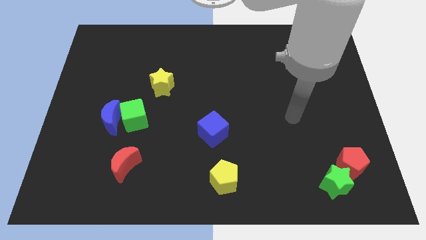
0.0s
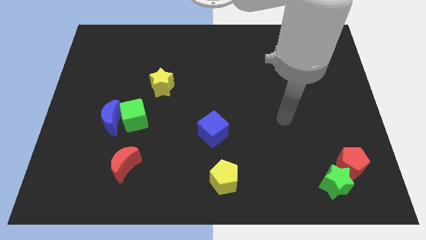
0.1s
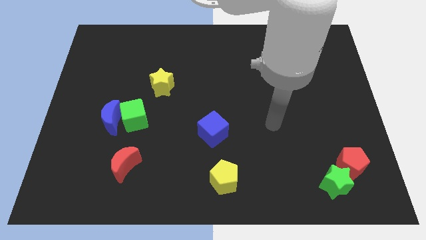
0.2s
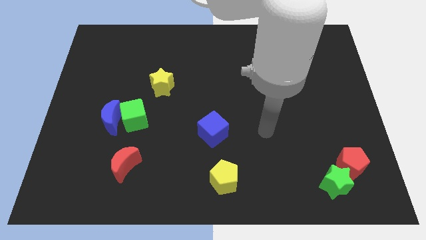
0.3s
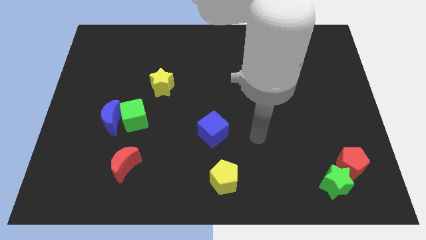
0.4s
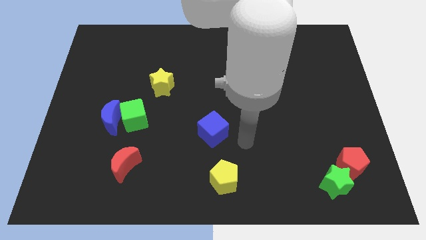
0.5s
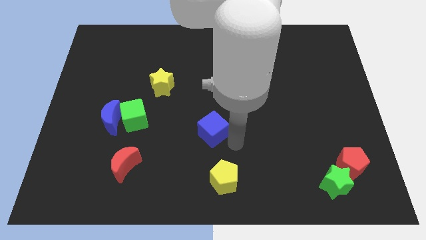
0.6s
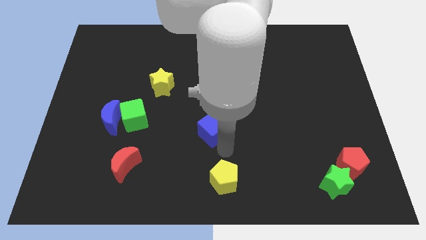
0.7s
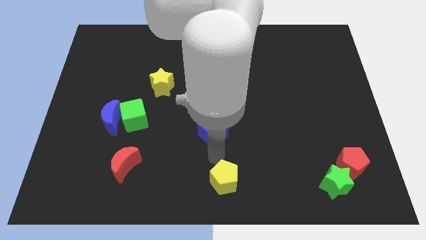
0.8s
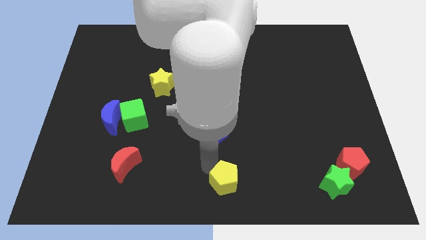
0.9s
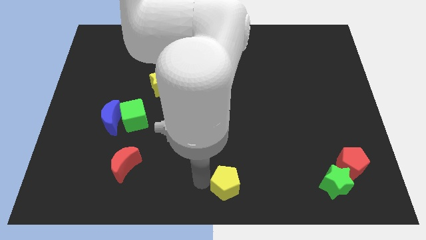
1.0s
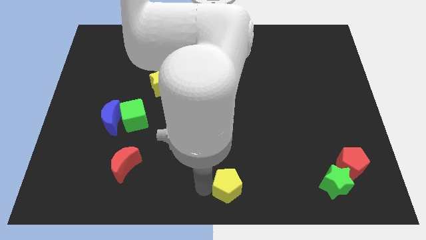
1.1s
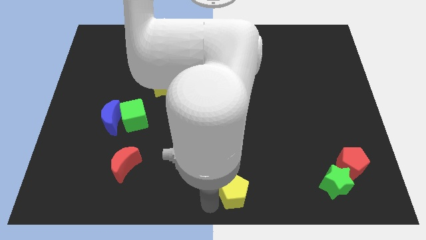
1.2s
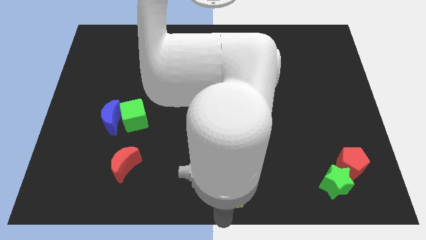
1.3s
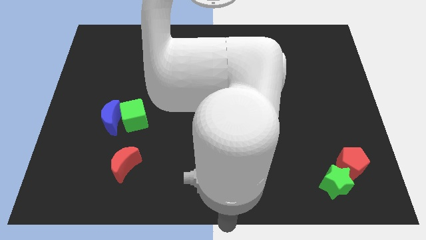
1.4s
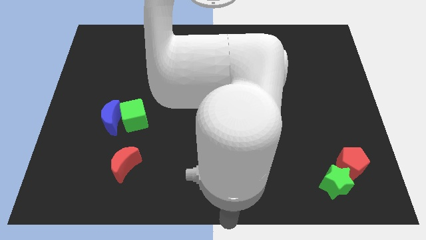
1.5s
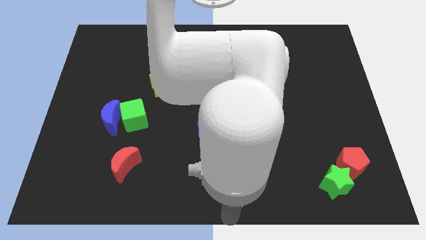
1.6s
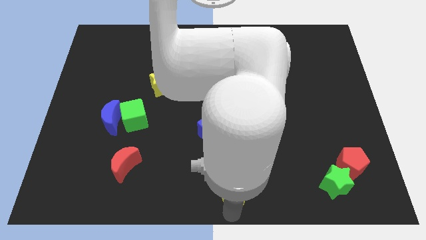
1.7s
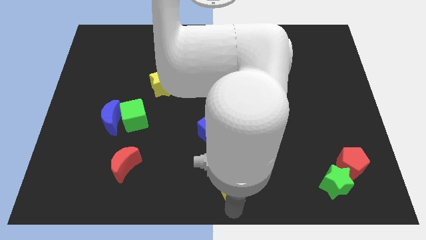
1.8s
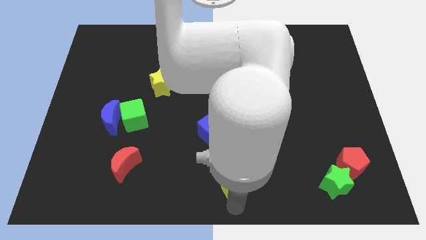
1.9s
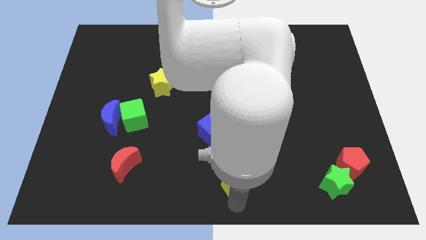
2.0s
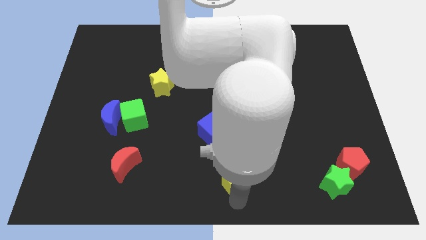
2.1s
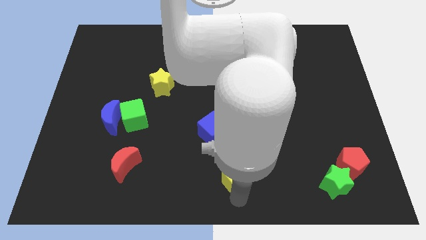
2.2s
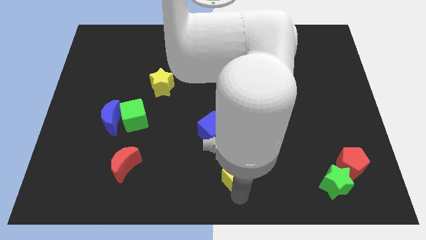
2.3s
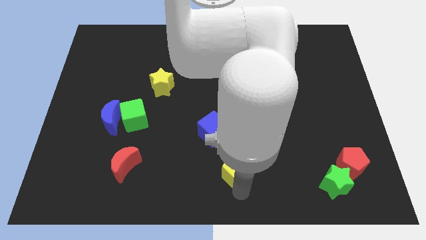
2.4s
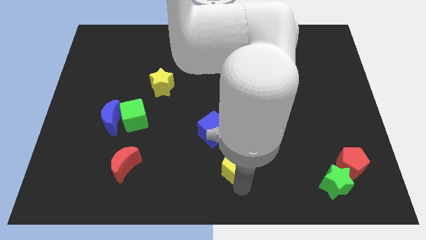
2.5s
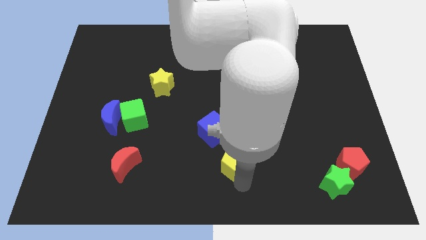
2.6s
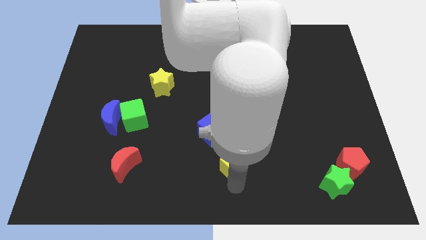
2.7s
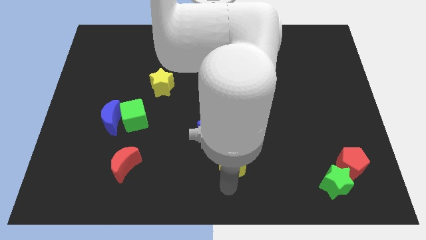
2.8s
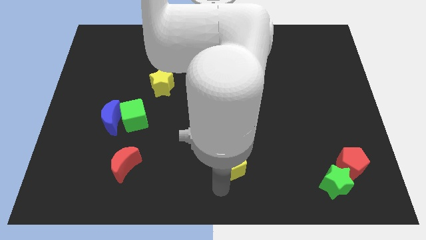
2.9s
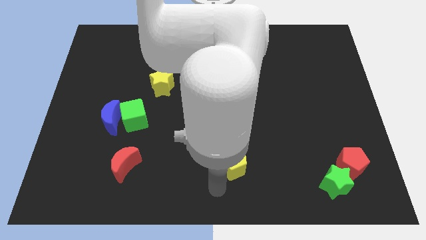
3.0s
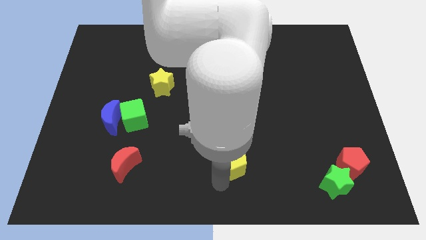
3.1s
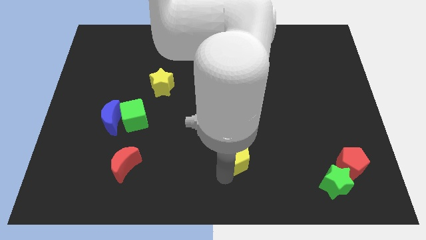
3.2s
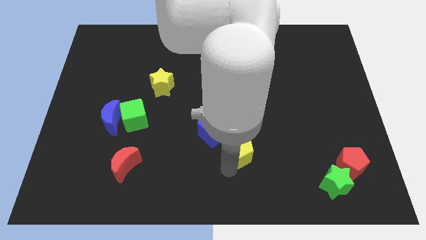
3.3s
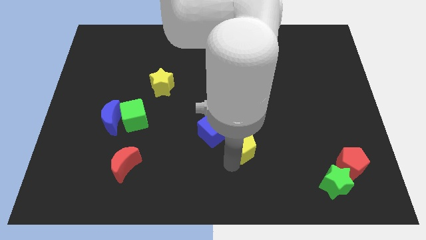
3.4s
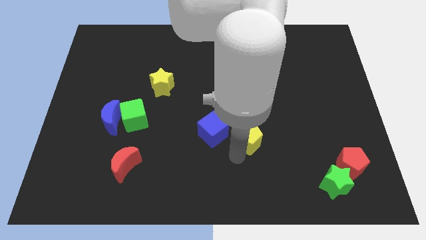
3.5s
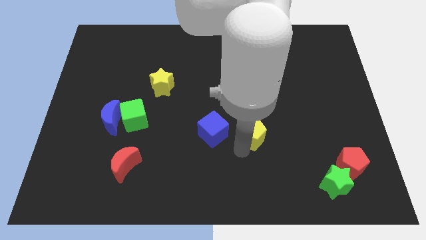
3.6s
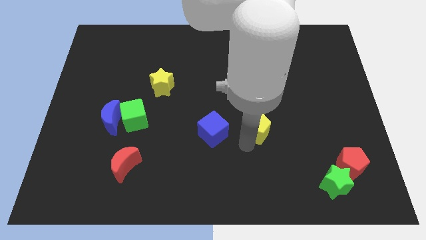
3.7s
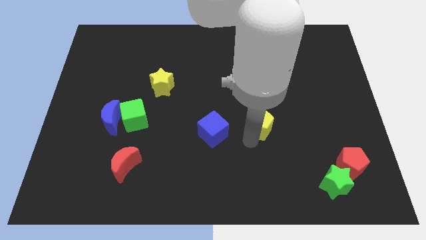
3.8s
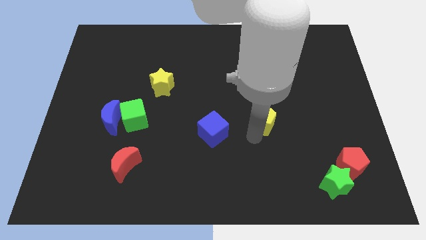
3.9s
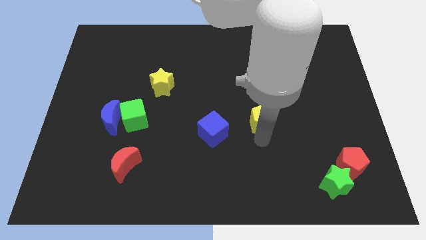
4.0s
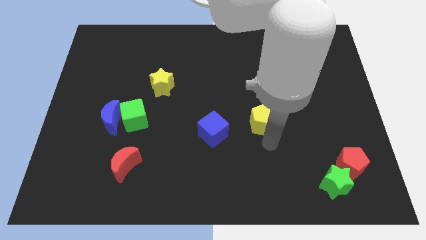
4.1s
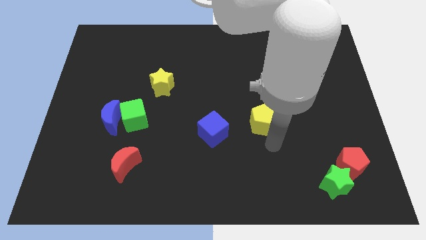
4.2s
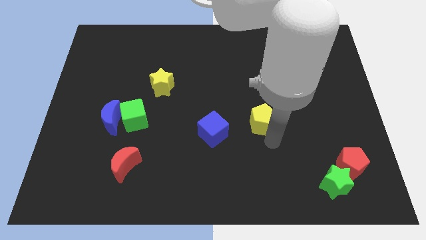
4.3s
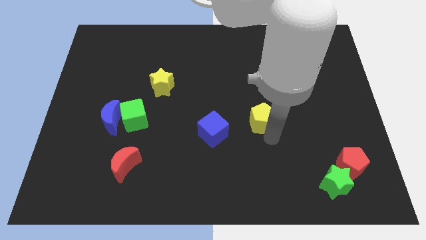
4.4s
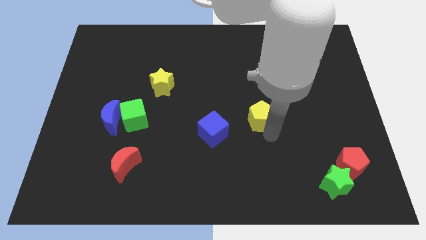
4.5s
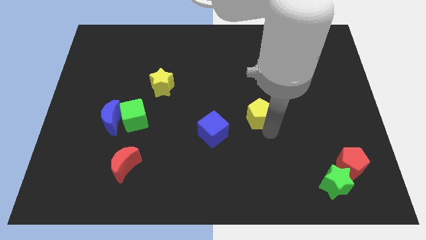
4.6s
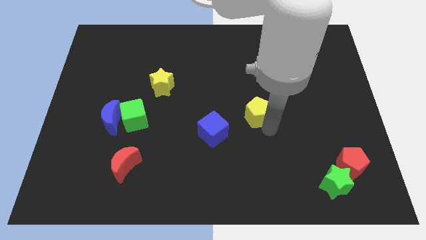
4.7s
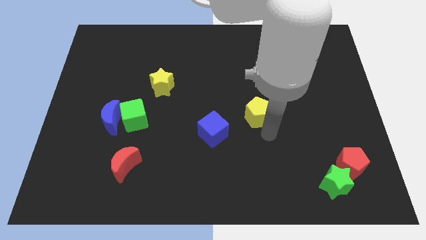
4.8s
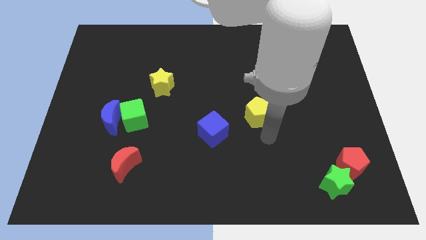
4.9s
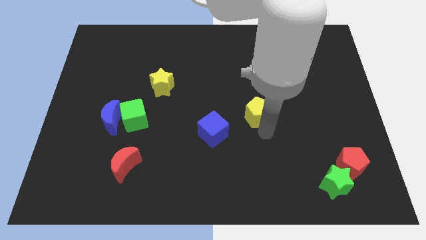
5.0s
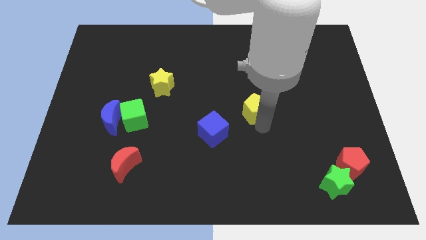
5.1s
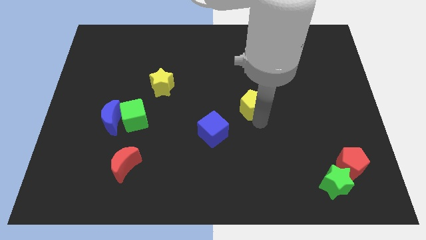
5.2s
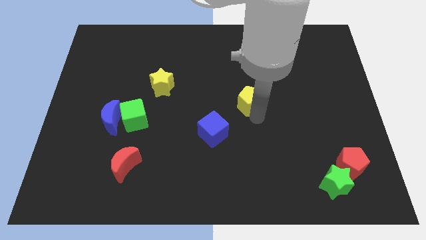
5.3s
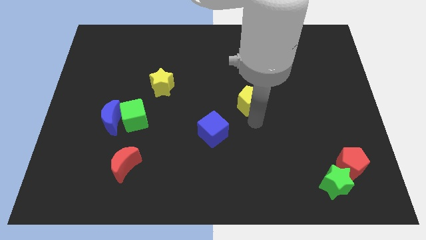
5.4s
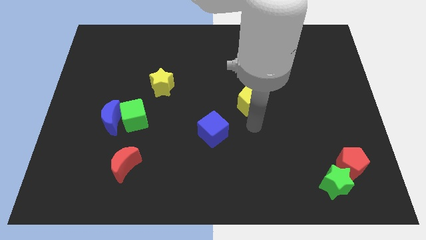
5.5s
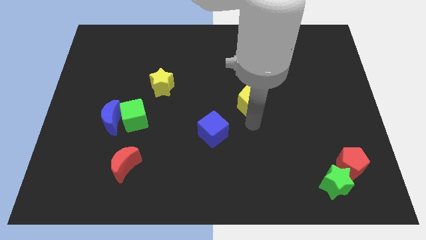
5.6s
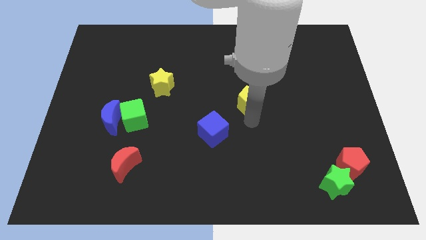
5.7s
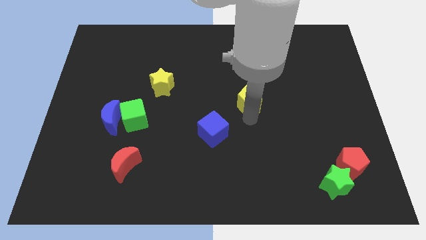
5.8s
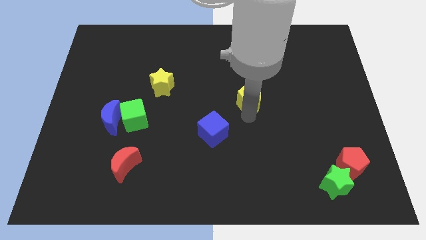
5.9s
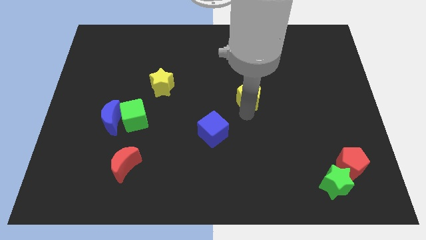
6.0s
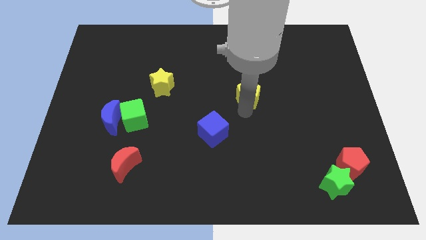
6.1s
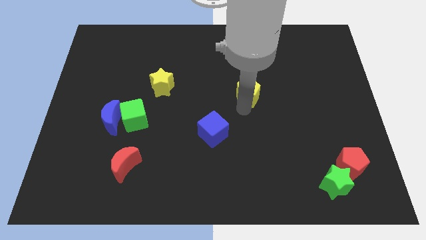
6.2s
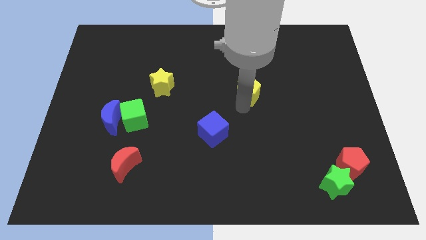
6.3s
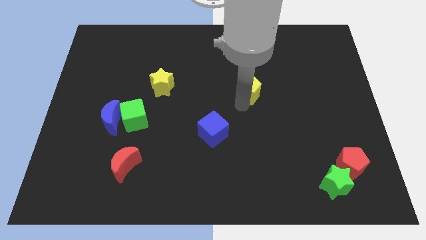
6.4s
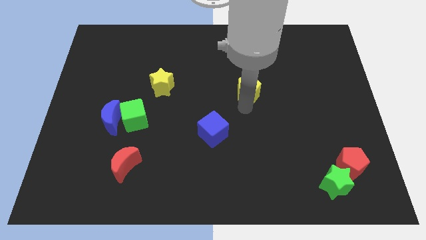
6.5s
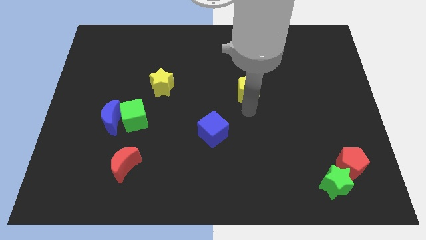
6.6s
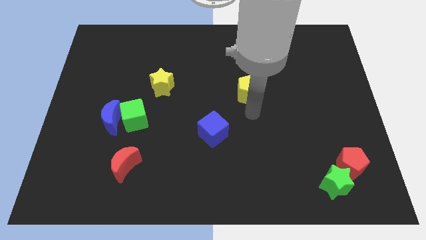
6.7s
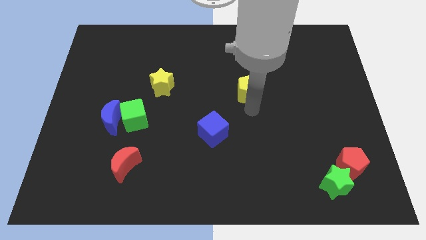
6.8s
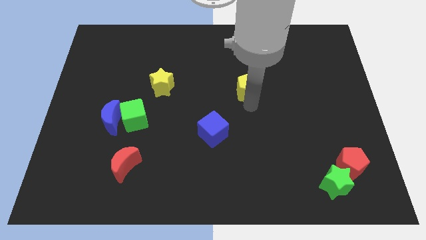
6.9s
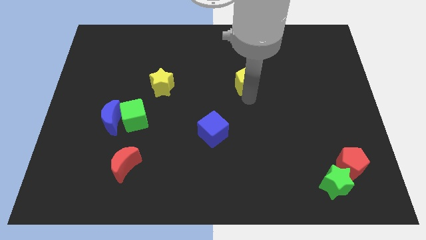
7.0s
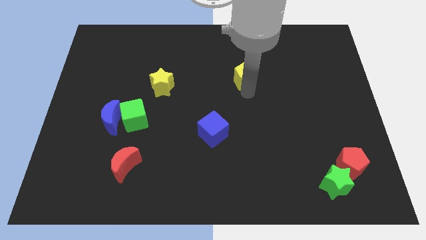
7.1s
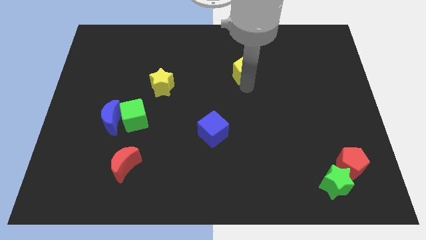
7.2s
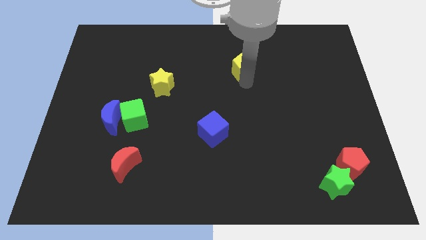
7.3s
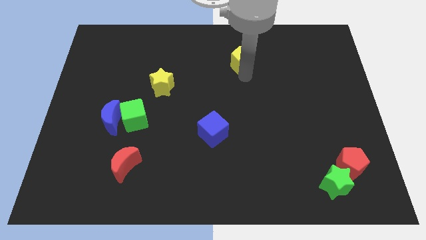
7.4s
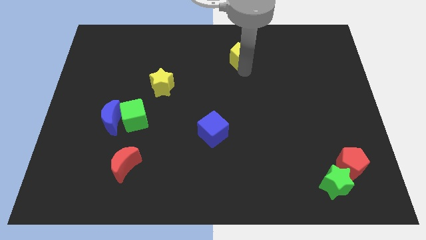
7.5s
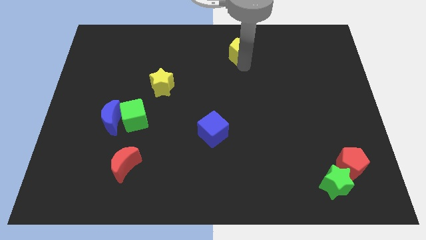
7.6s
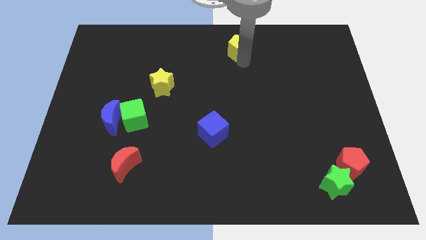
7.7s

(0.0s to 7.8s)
put the yellow pentagon to the towards your base
